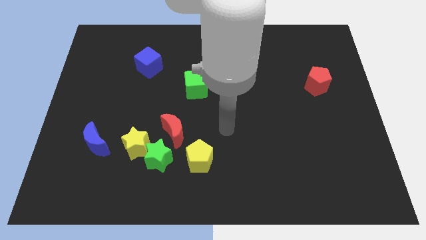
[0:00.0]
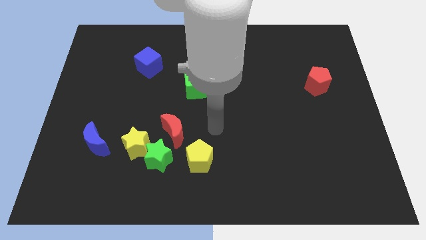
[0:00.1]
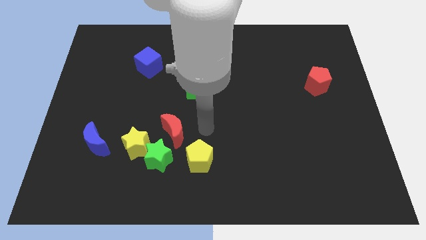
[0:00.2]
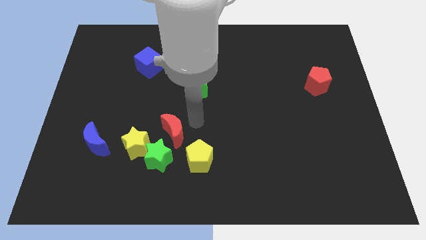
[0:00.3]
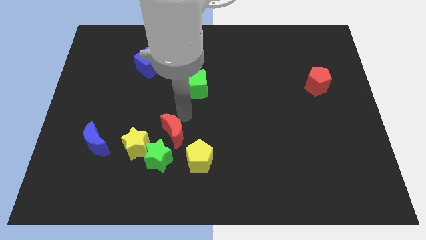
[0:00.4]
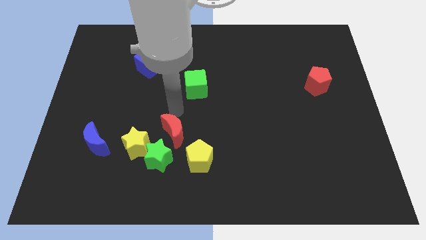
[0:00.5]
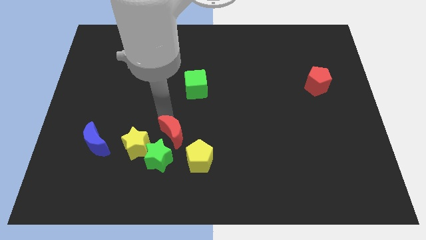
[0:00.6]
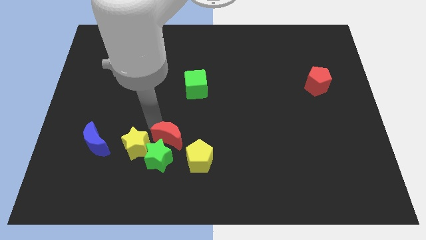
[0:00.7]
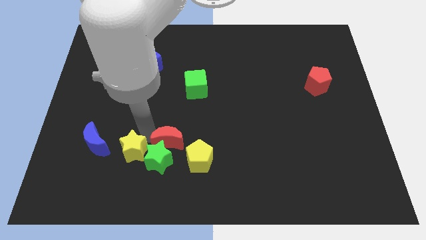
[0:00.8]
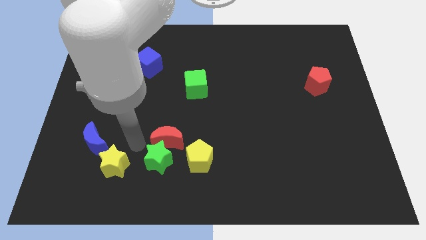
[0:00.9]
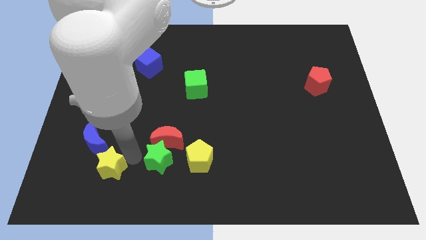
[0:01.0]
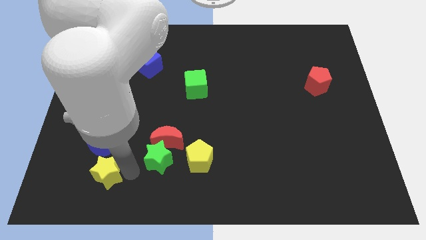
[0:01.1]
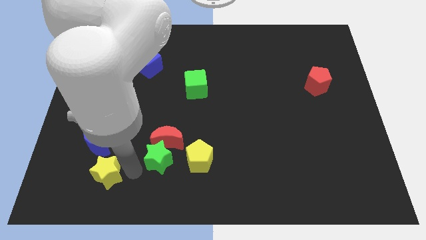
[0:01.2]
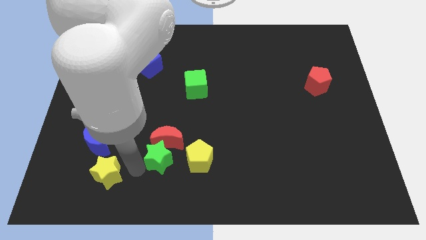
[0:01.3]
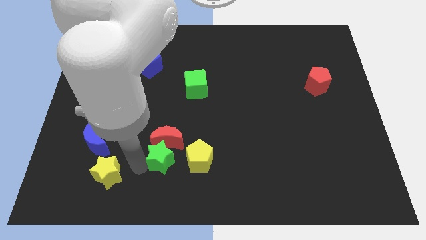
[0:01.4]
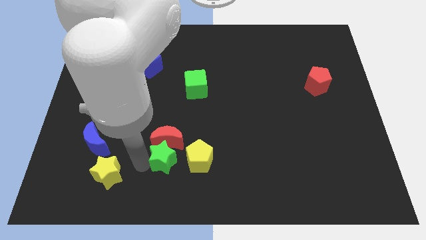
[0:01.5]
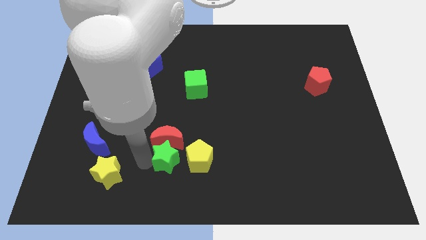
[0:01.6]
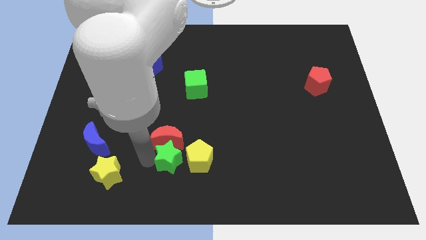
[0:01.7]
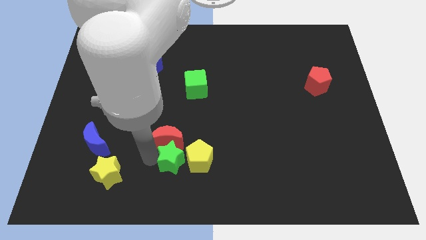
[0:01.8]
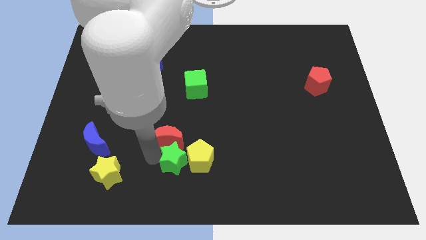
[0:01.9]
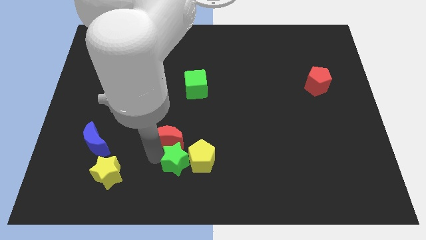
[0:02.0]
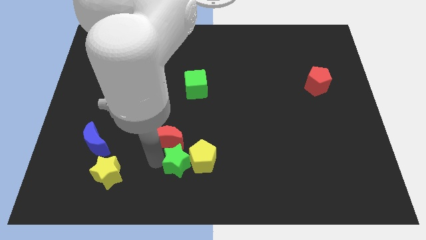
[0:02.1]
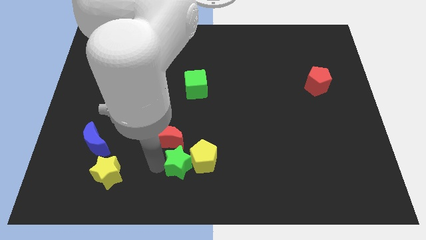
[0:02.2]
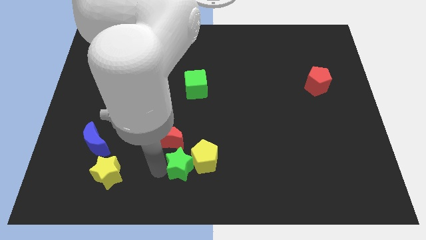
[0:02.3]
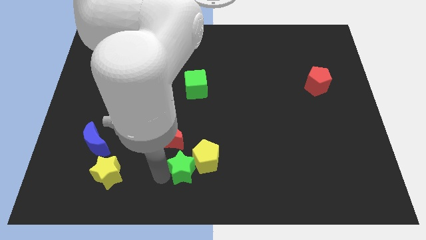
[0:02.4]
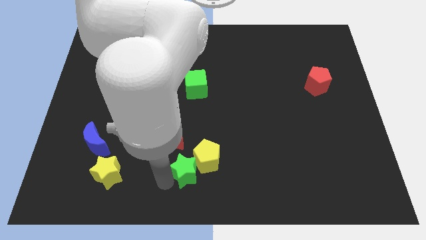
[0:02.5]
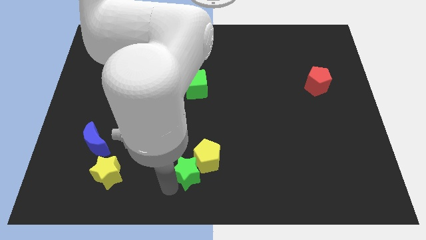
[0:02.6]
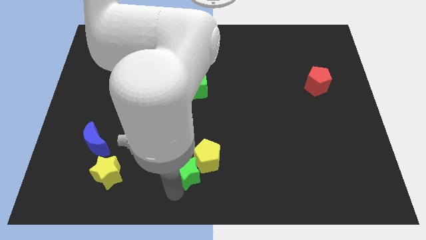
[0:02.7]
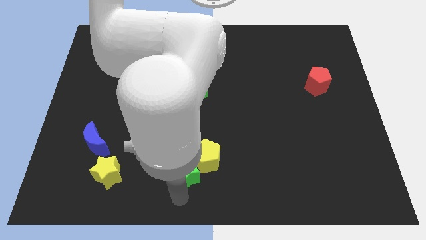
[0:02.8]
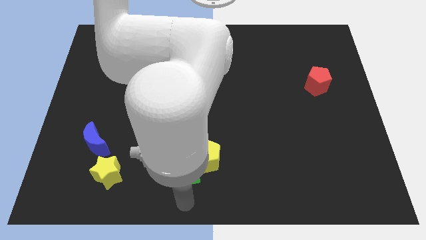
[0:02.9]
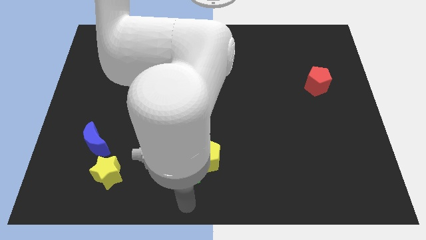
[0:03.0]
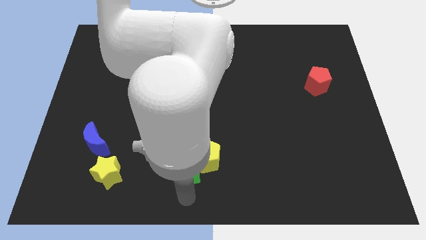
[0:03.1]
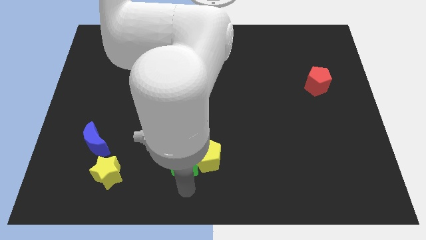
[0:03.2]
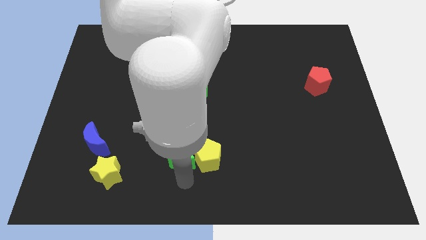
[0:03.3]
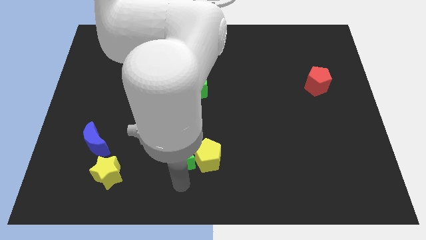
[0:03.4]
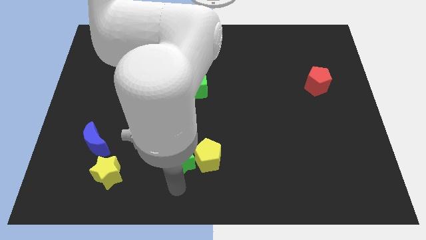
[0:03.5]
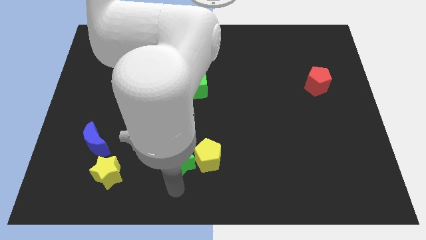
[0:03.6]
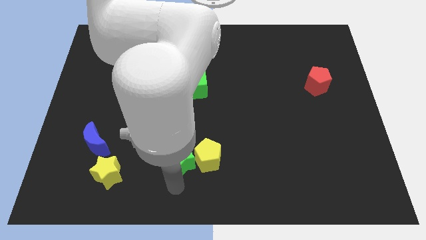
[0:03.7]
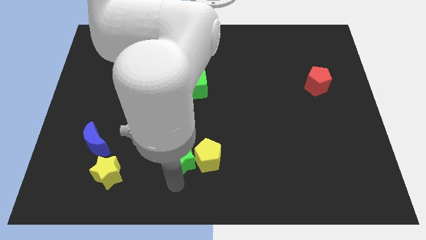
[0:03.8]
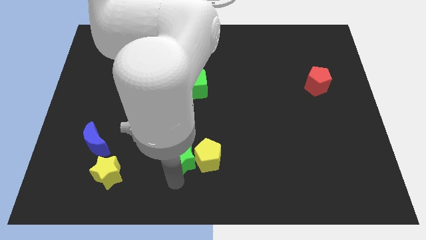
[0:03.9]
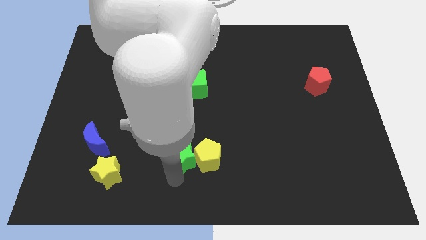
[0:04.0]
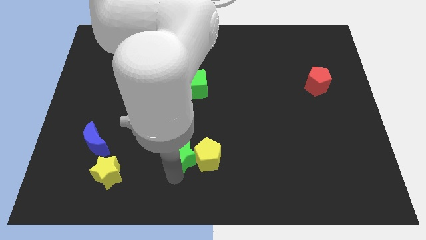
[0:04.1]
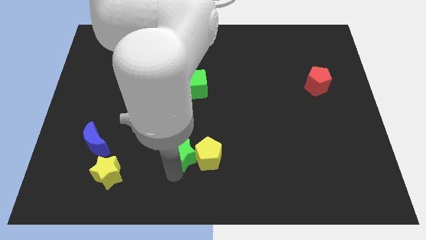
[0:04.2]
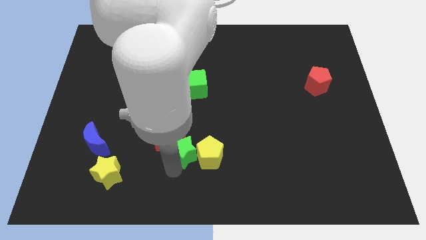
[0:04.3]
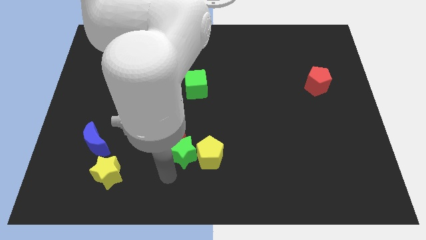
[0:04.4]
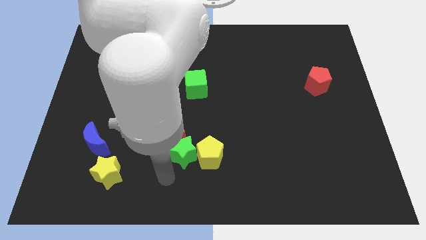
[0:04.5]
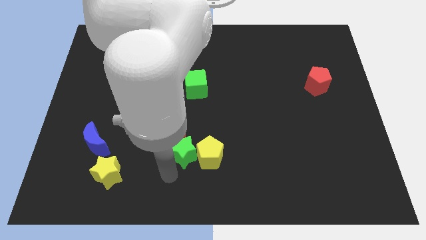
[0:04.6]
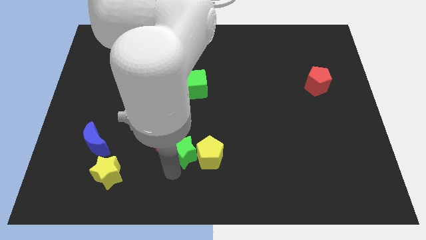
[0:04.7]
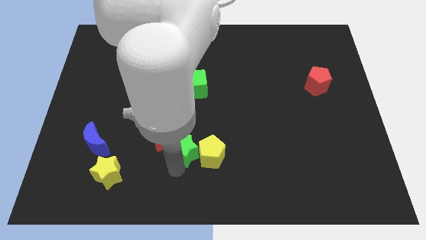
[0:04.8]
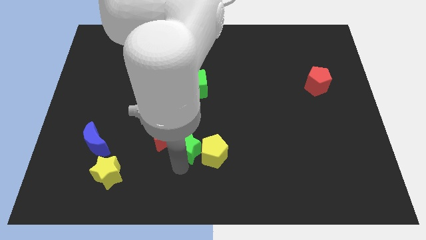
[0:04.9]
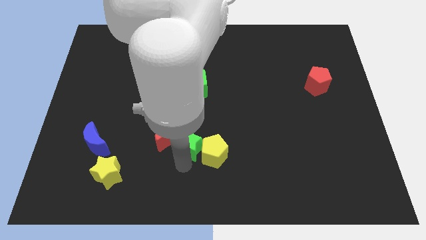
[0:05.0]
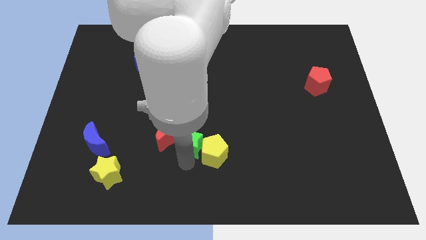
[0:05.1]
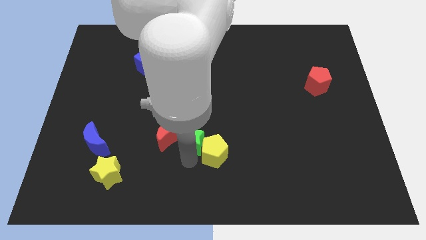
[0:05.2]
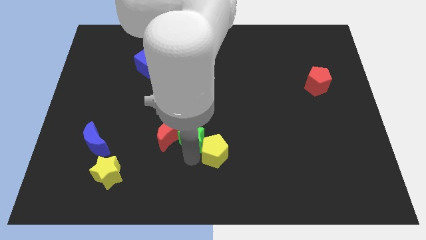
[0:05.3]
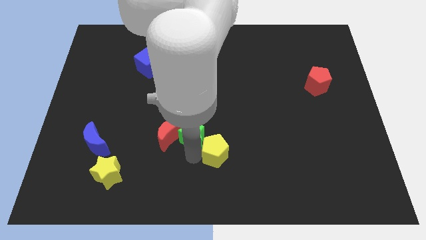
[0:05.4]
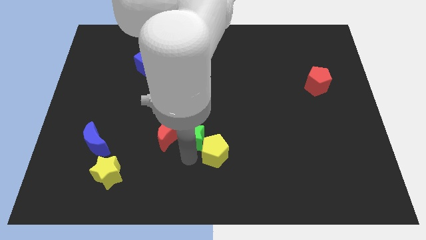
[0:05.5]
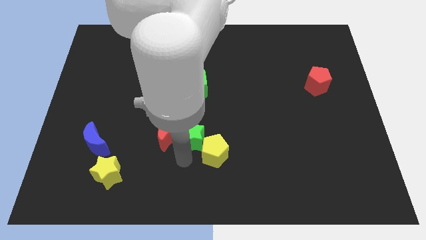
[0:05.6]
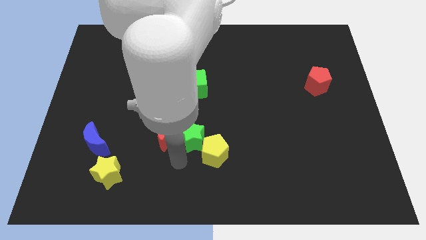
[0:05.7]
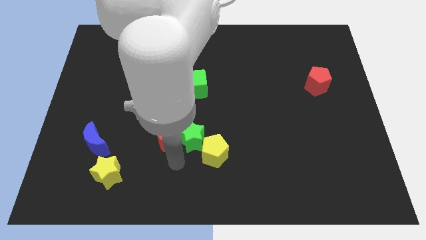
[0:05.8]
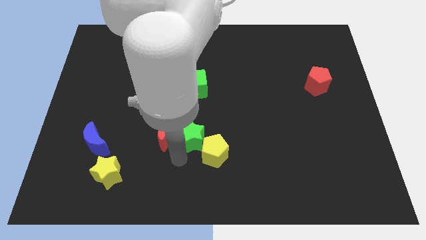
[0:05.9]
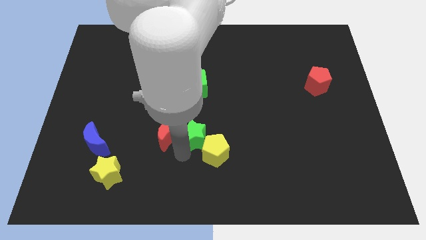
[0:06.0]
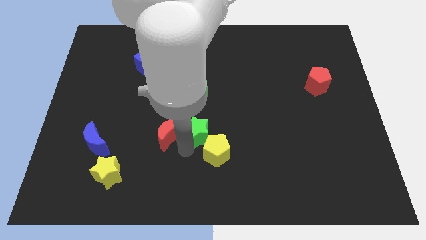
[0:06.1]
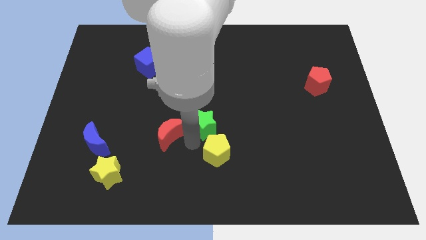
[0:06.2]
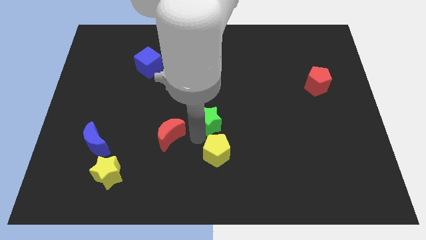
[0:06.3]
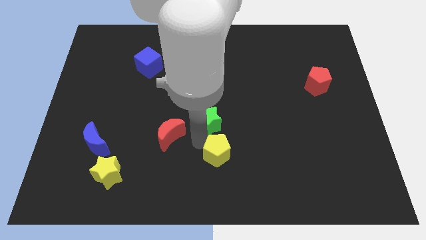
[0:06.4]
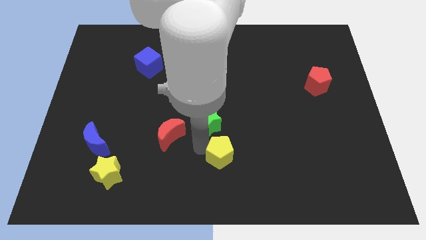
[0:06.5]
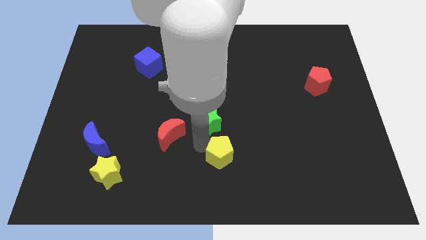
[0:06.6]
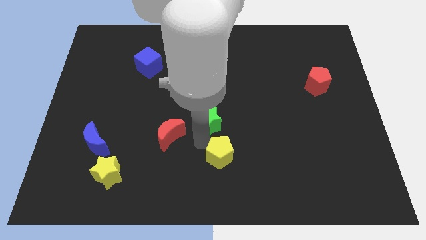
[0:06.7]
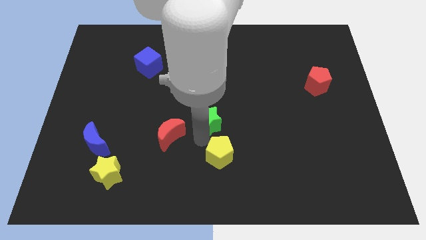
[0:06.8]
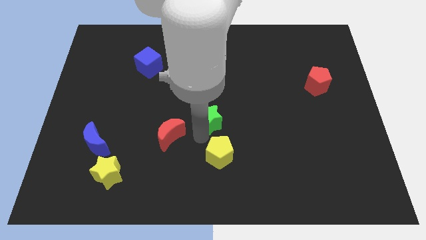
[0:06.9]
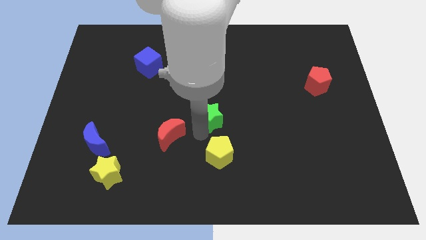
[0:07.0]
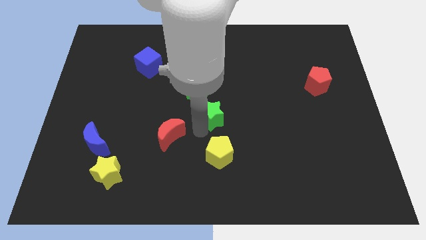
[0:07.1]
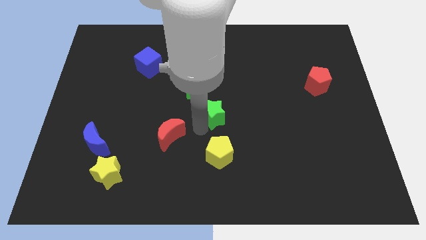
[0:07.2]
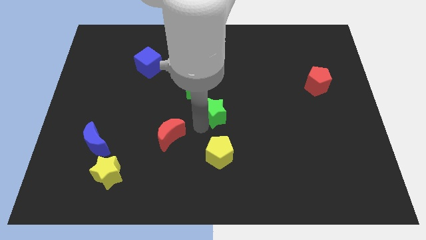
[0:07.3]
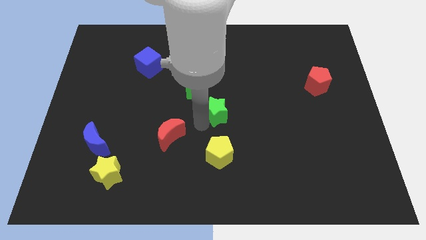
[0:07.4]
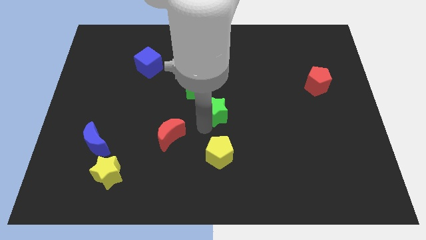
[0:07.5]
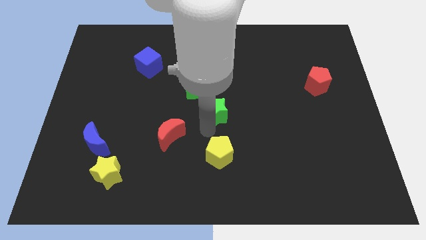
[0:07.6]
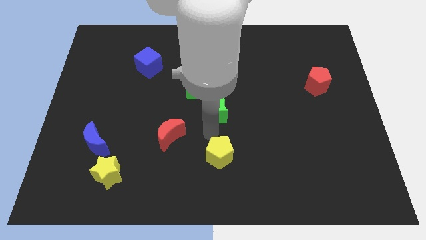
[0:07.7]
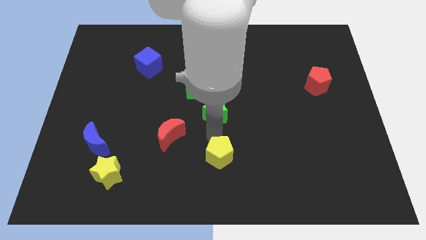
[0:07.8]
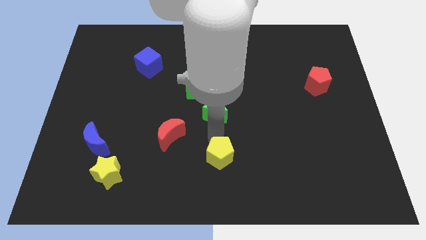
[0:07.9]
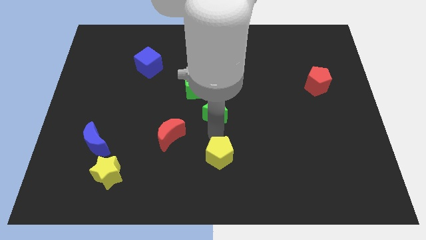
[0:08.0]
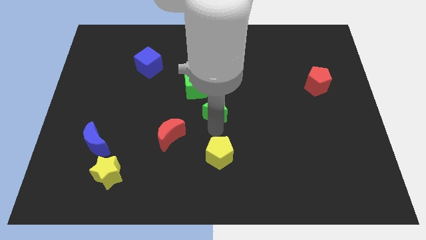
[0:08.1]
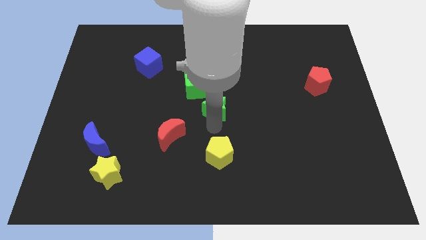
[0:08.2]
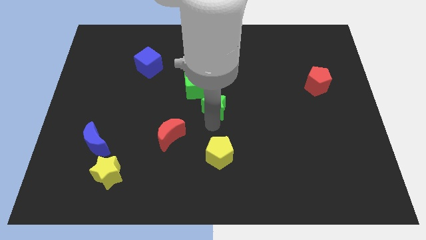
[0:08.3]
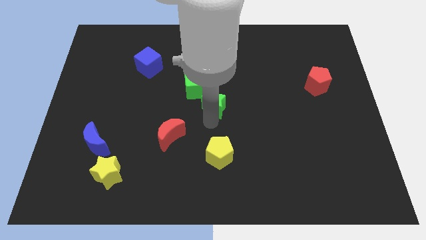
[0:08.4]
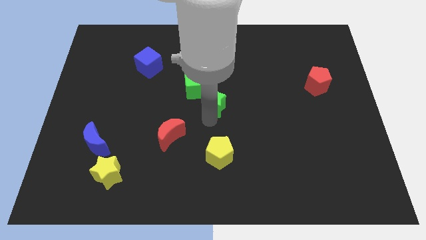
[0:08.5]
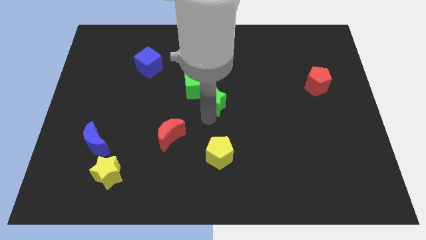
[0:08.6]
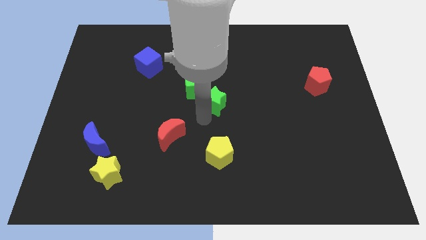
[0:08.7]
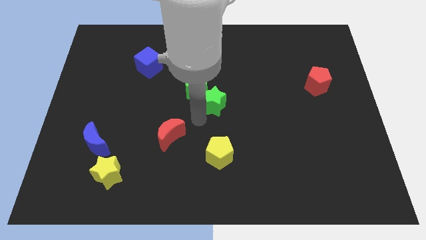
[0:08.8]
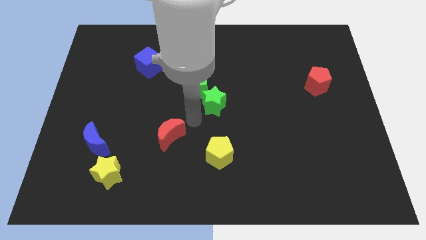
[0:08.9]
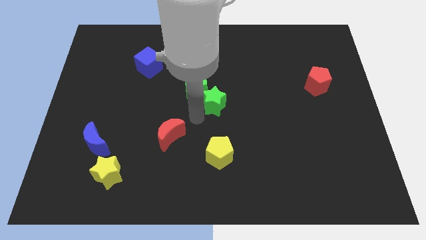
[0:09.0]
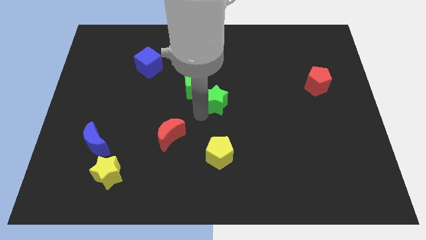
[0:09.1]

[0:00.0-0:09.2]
slide the green star just right of the green cube
